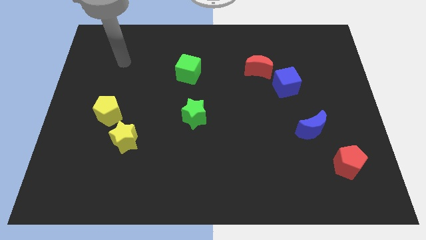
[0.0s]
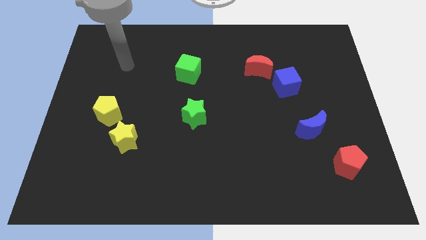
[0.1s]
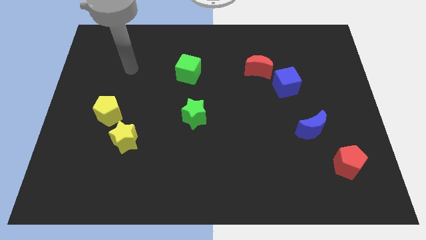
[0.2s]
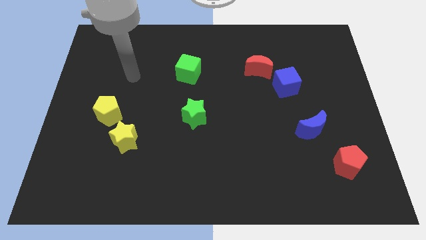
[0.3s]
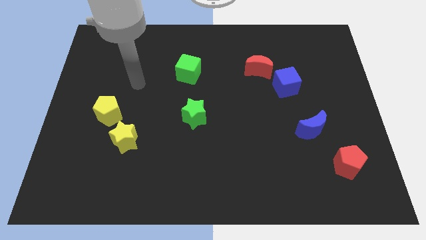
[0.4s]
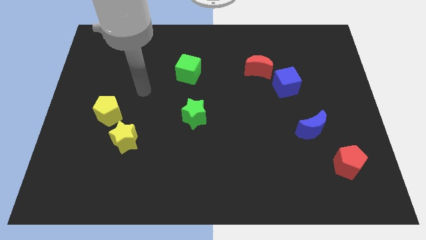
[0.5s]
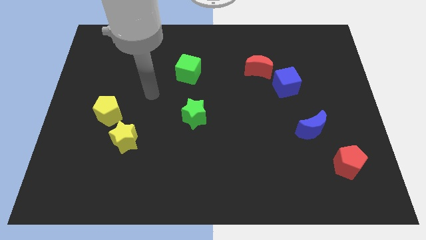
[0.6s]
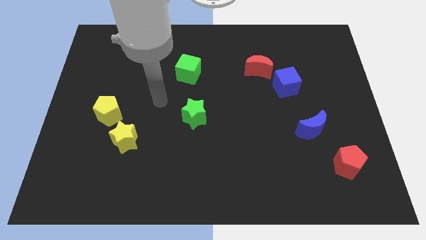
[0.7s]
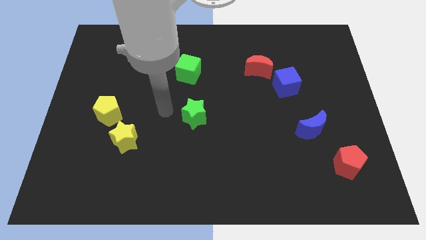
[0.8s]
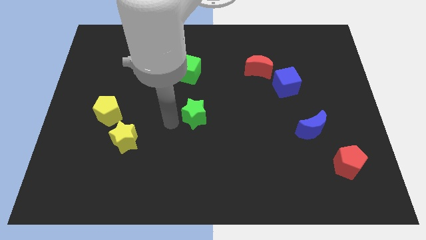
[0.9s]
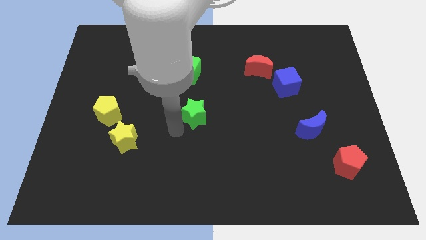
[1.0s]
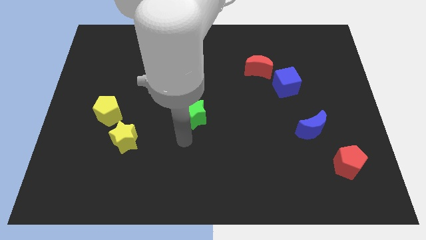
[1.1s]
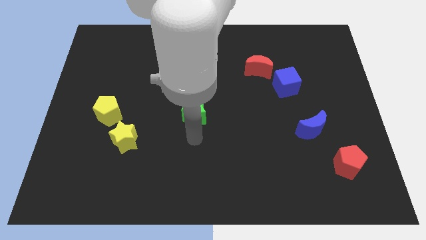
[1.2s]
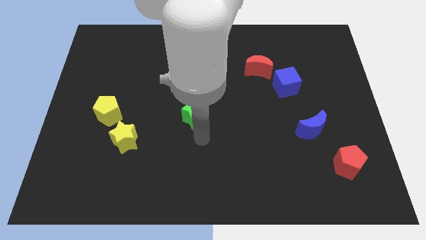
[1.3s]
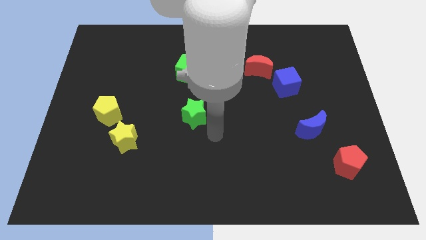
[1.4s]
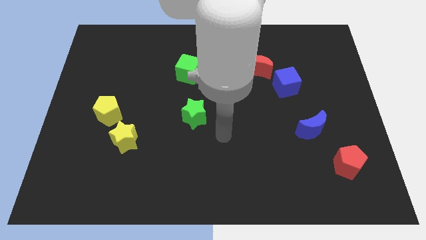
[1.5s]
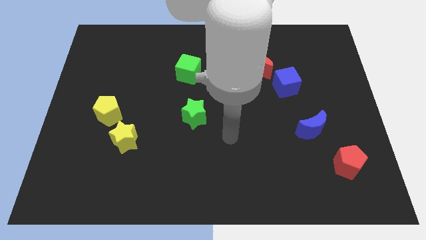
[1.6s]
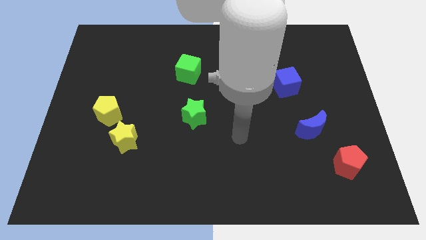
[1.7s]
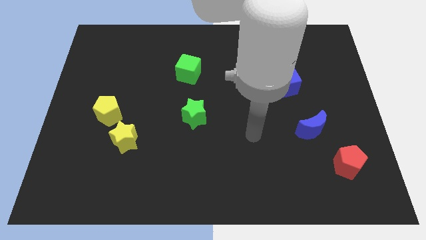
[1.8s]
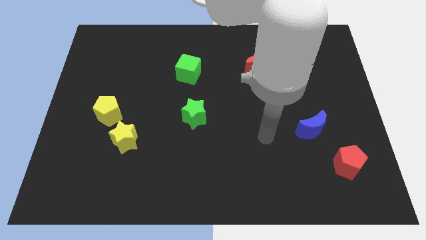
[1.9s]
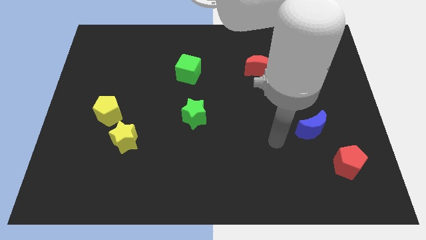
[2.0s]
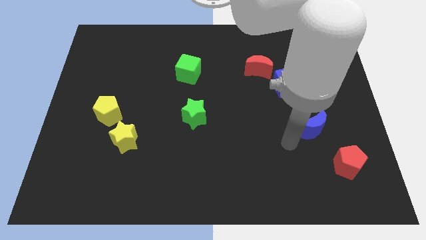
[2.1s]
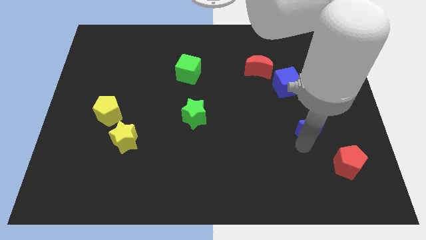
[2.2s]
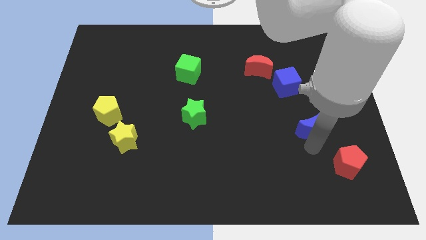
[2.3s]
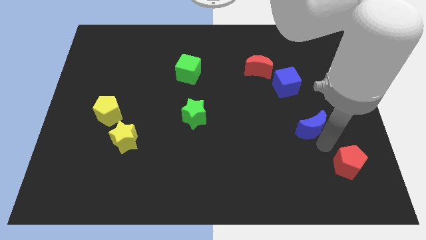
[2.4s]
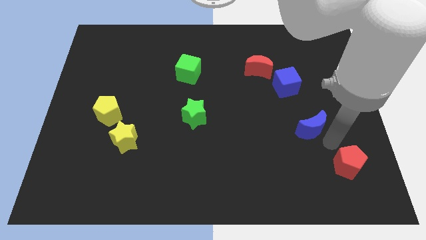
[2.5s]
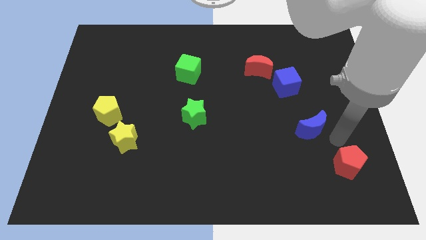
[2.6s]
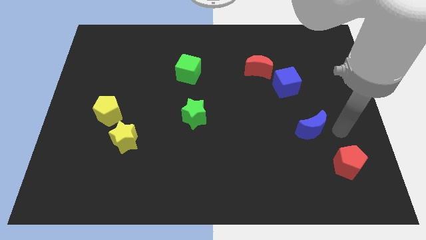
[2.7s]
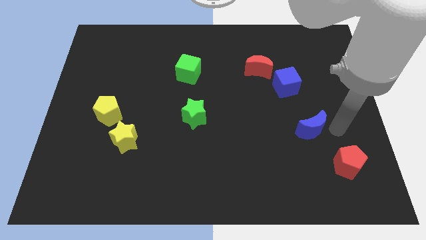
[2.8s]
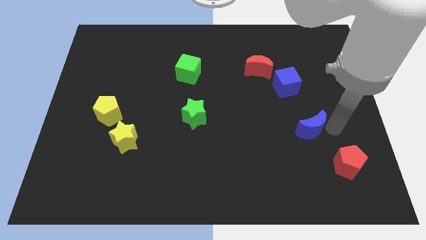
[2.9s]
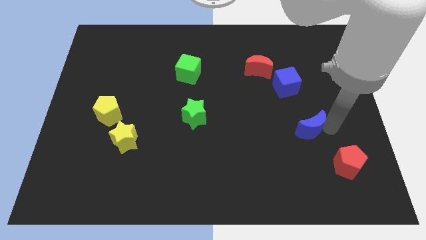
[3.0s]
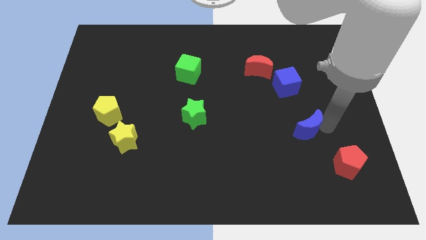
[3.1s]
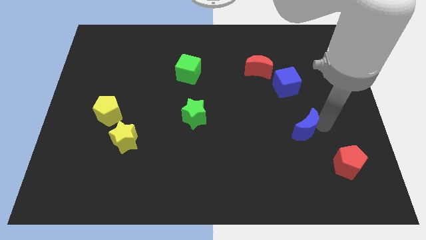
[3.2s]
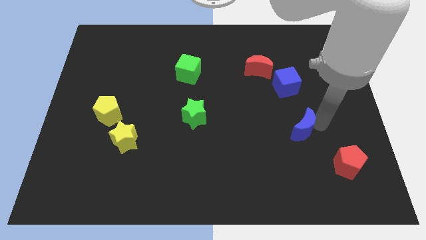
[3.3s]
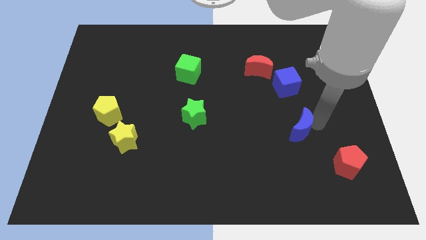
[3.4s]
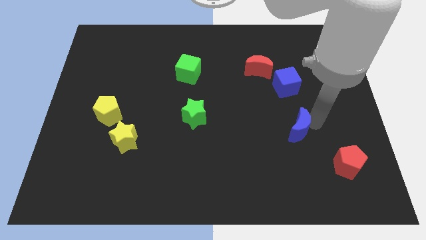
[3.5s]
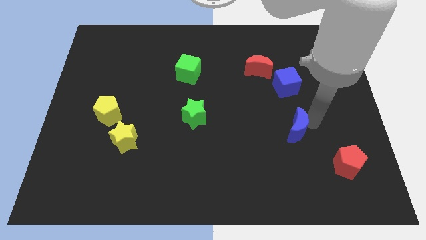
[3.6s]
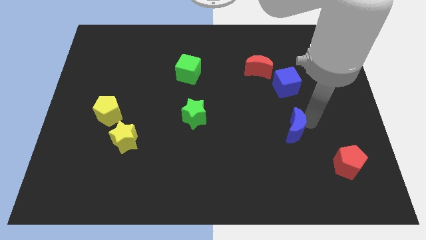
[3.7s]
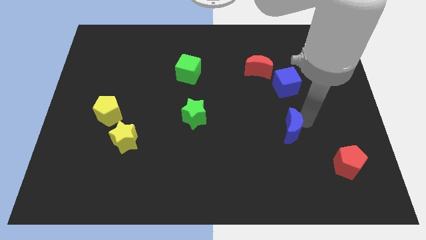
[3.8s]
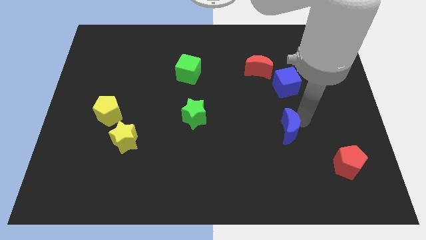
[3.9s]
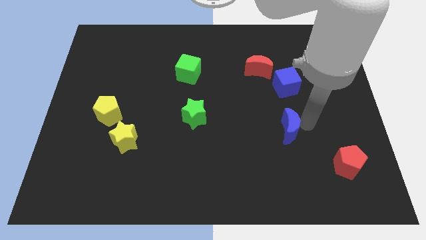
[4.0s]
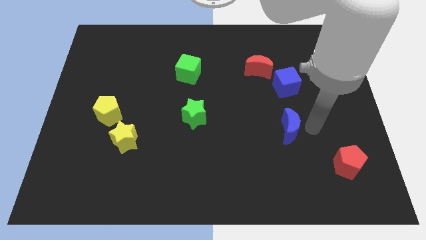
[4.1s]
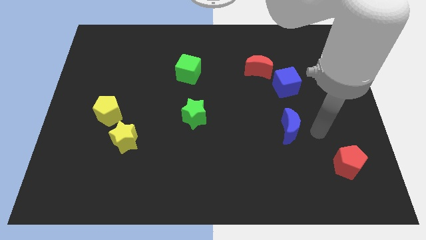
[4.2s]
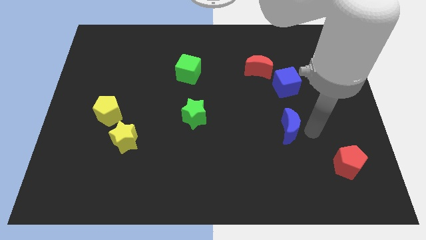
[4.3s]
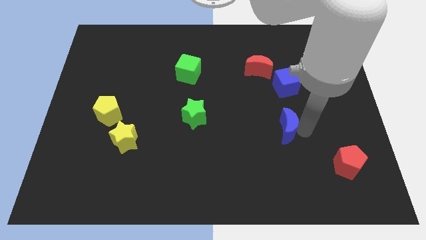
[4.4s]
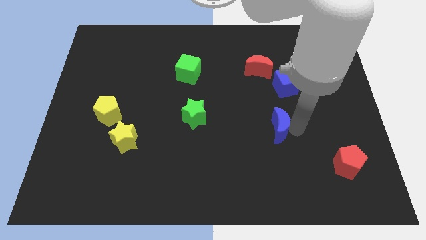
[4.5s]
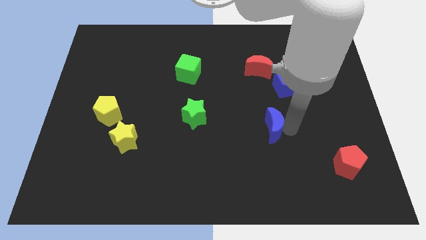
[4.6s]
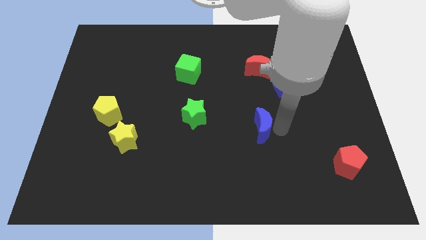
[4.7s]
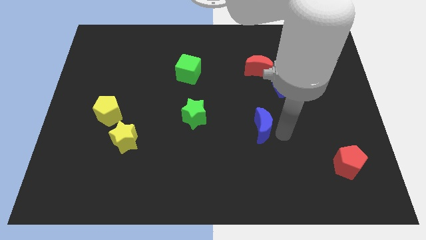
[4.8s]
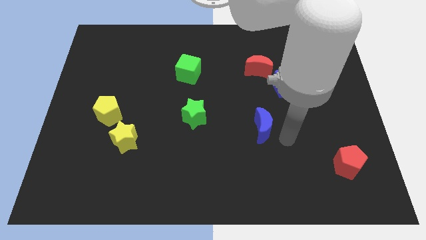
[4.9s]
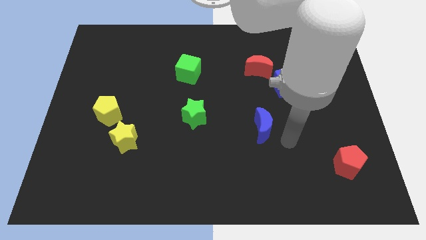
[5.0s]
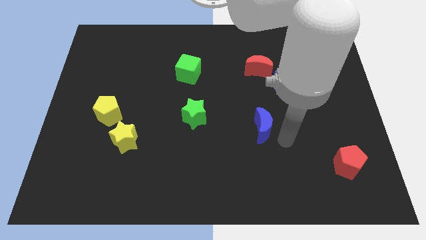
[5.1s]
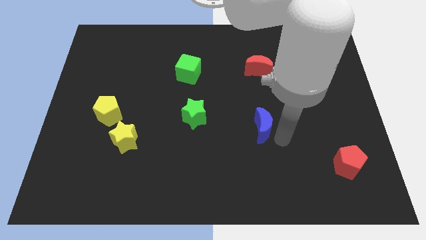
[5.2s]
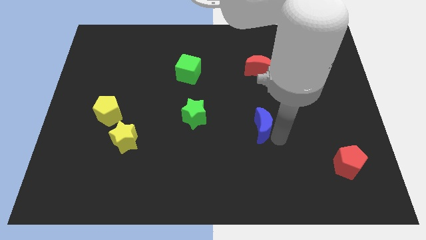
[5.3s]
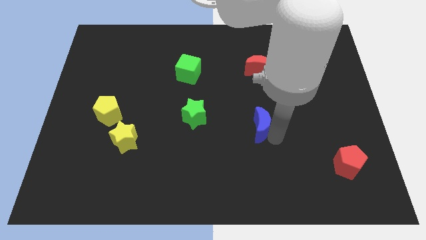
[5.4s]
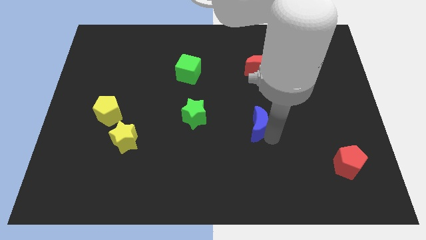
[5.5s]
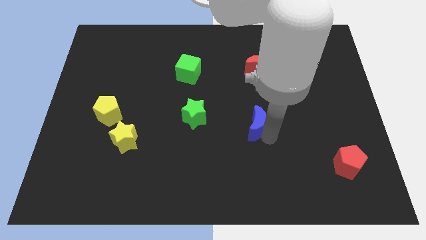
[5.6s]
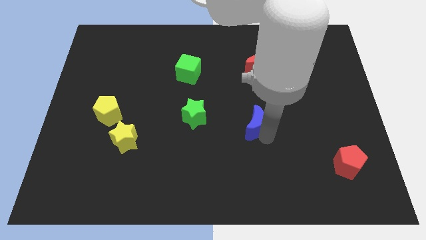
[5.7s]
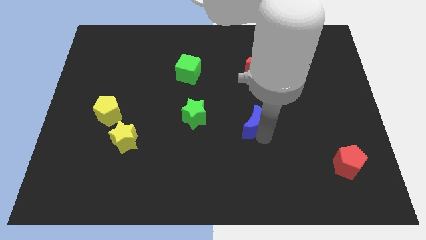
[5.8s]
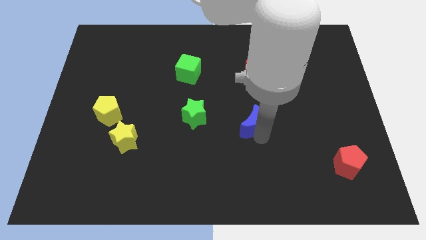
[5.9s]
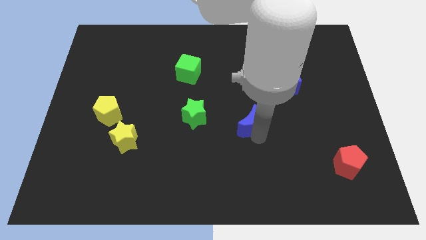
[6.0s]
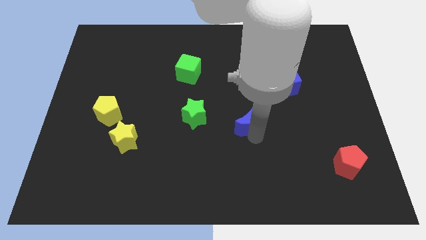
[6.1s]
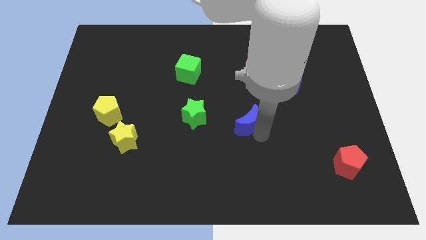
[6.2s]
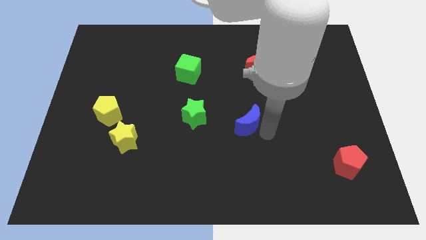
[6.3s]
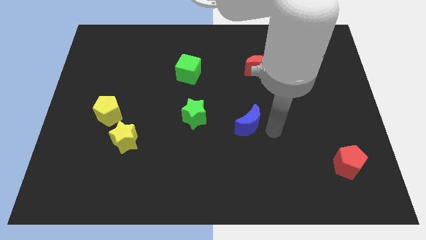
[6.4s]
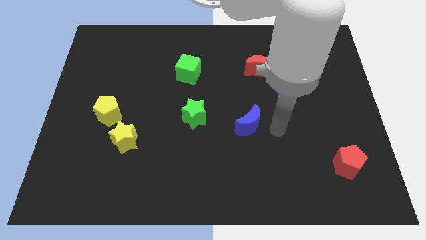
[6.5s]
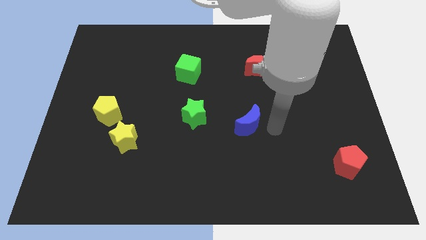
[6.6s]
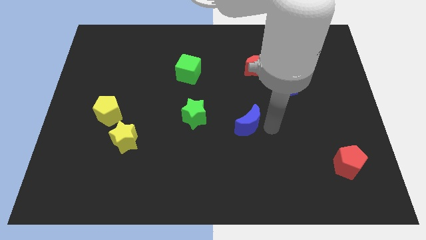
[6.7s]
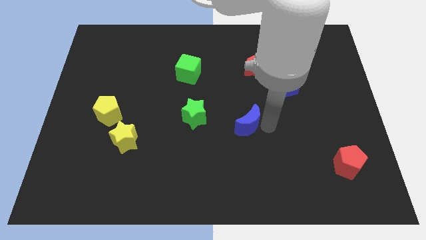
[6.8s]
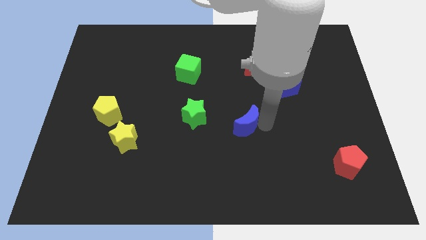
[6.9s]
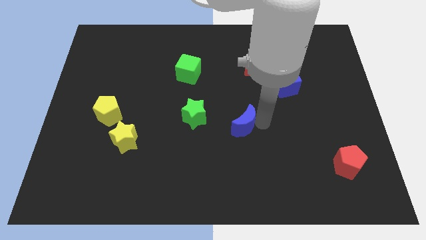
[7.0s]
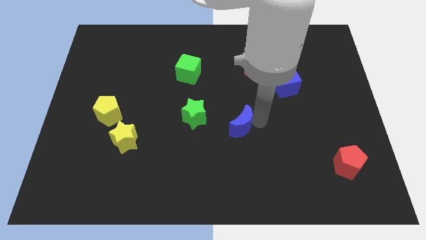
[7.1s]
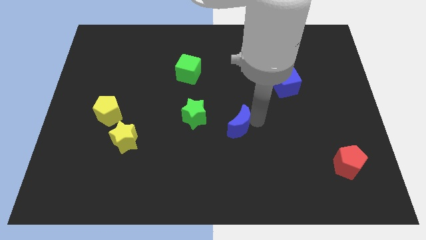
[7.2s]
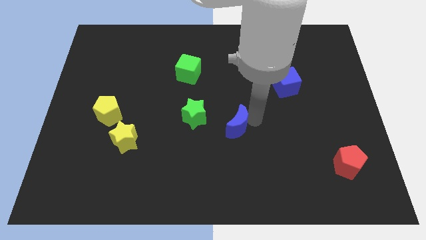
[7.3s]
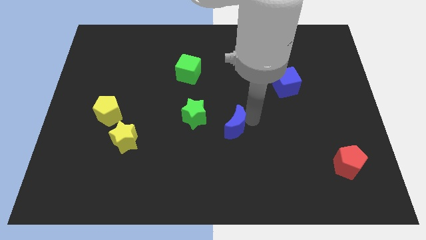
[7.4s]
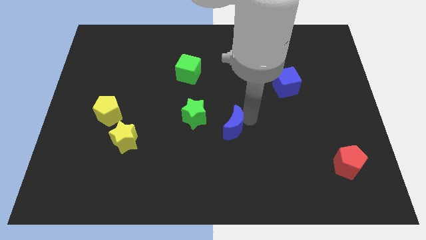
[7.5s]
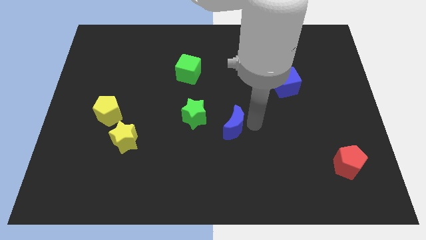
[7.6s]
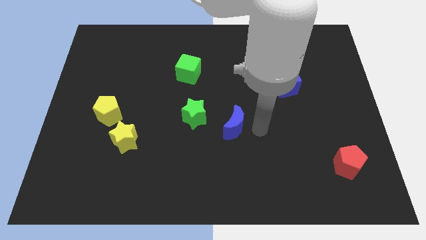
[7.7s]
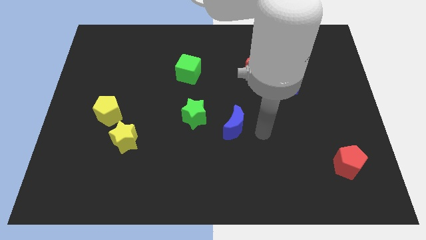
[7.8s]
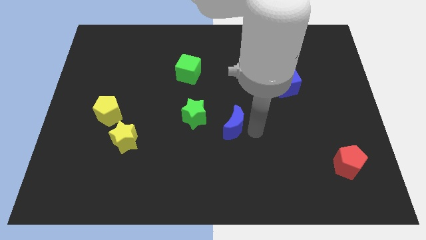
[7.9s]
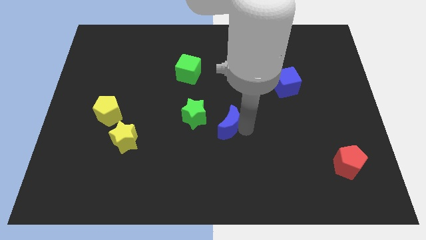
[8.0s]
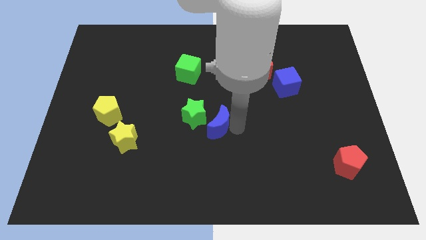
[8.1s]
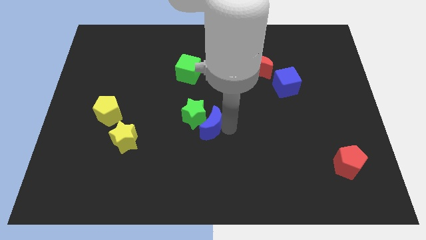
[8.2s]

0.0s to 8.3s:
put the blue moon to the green star
